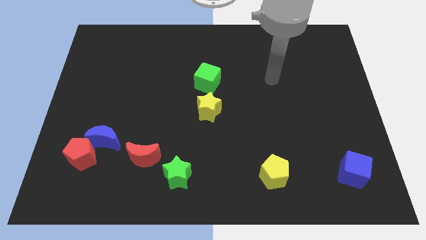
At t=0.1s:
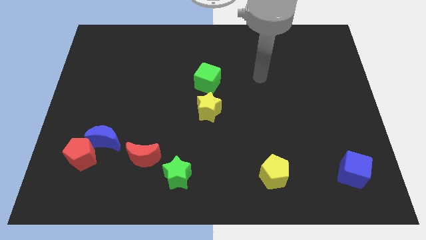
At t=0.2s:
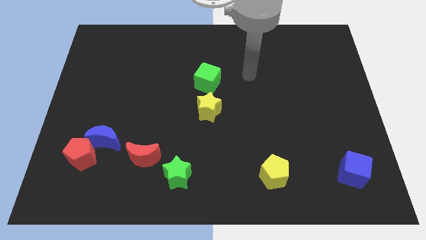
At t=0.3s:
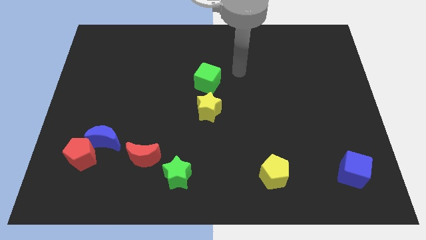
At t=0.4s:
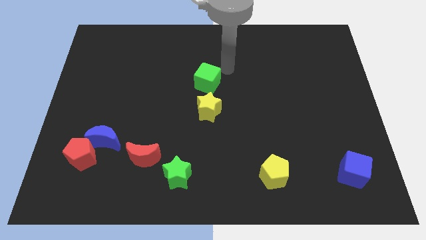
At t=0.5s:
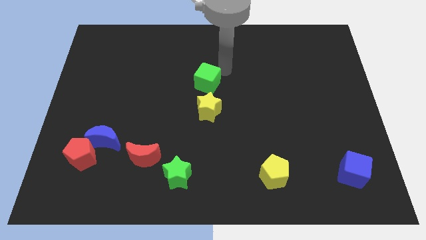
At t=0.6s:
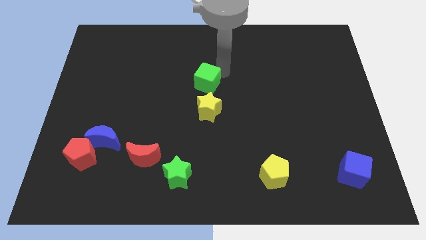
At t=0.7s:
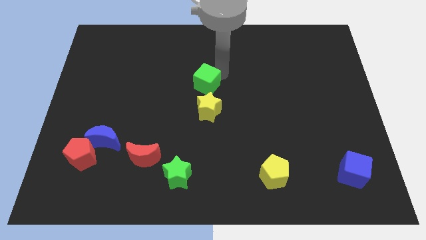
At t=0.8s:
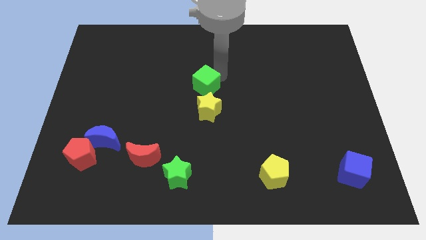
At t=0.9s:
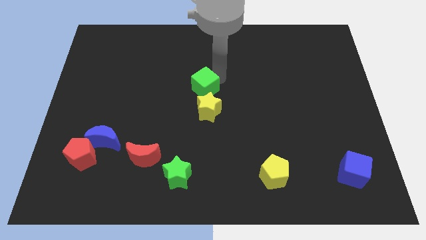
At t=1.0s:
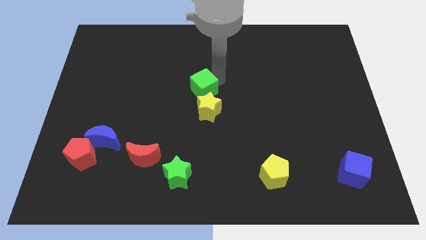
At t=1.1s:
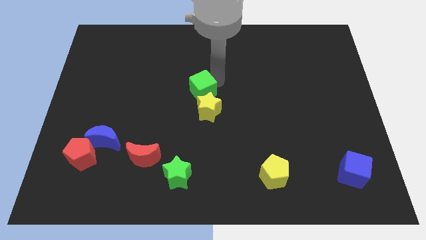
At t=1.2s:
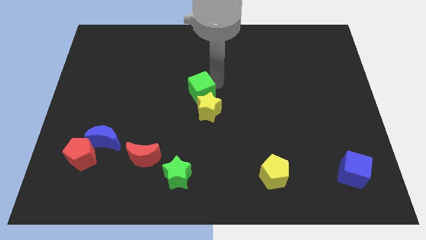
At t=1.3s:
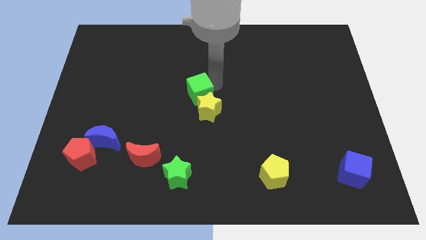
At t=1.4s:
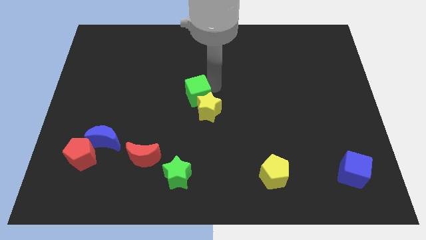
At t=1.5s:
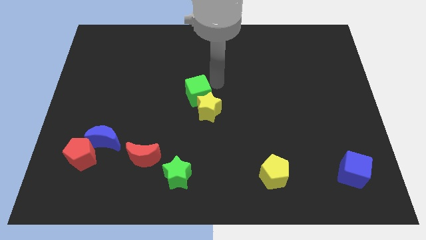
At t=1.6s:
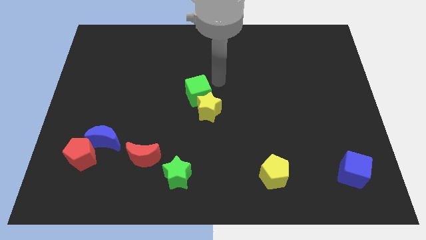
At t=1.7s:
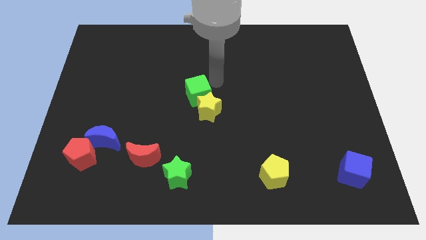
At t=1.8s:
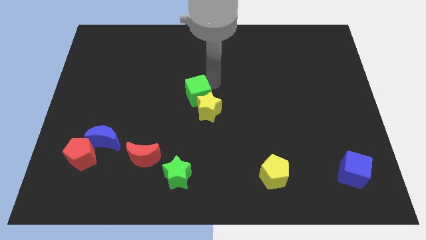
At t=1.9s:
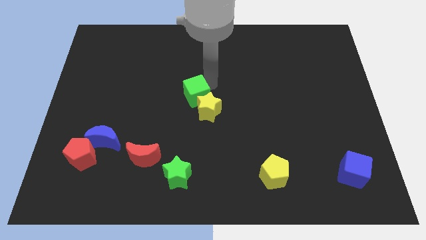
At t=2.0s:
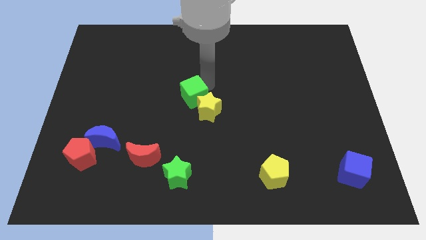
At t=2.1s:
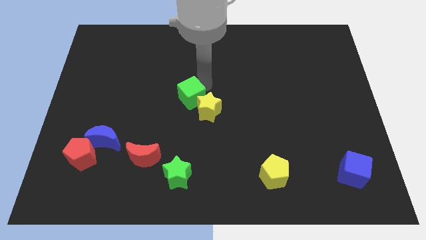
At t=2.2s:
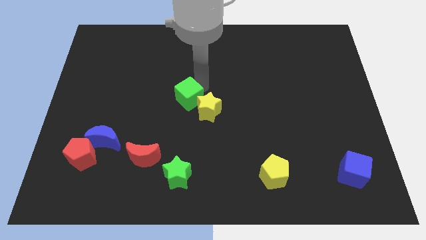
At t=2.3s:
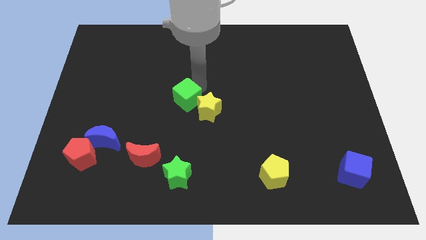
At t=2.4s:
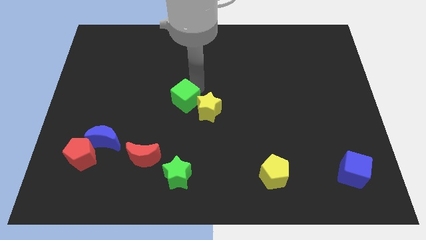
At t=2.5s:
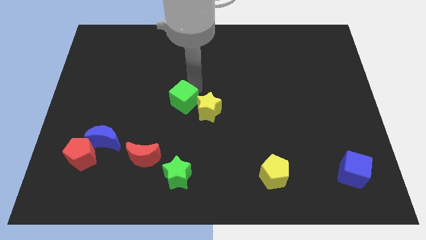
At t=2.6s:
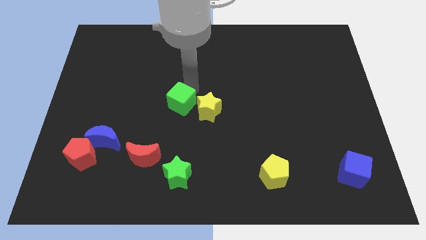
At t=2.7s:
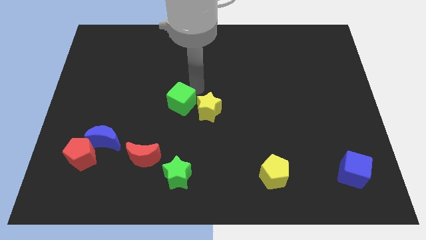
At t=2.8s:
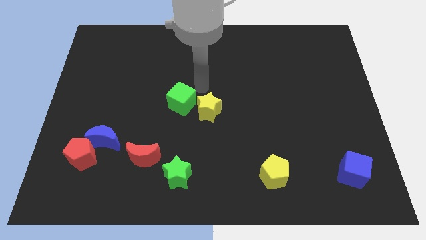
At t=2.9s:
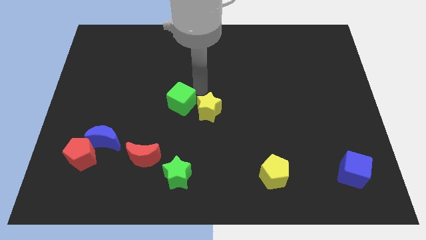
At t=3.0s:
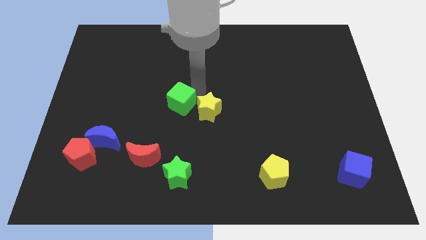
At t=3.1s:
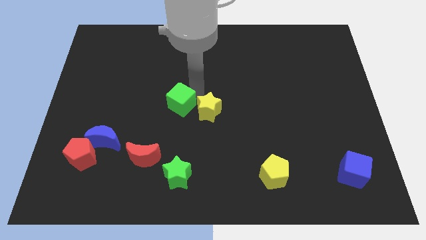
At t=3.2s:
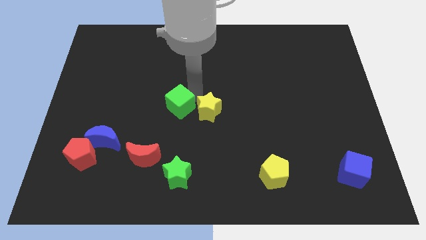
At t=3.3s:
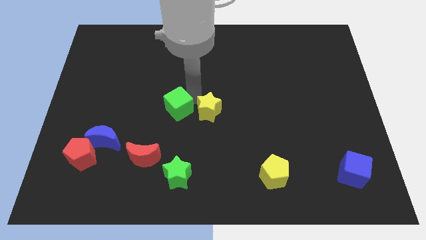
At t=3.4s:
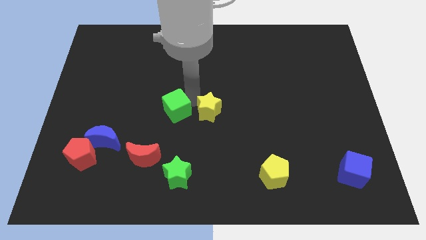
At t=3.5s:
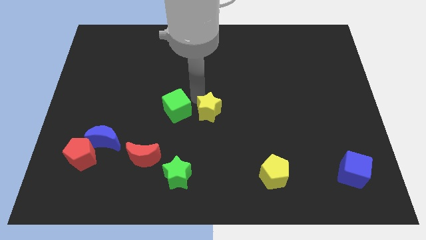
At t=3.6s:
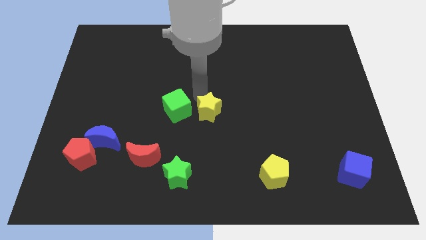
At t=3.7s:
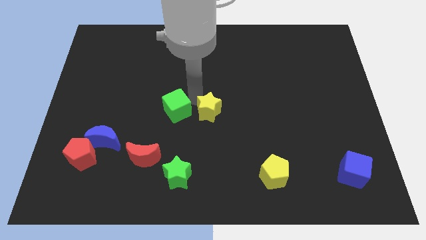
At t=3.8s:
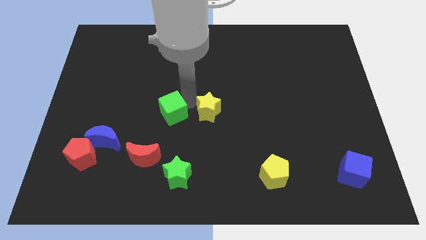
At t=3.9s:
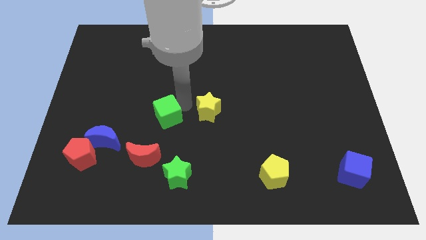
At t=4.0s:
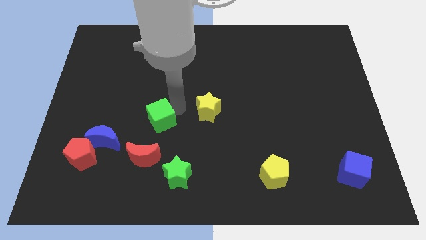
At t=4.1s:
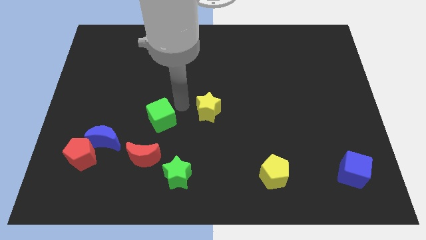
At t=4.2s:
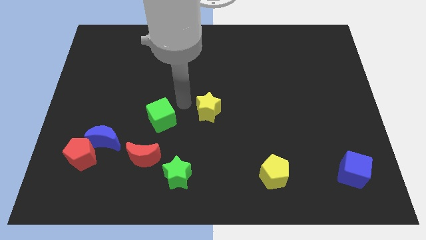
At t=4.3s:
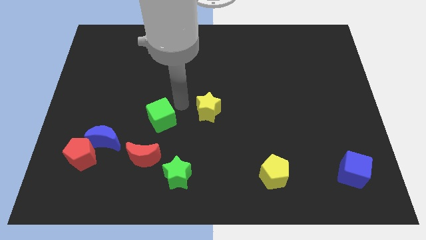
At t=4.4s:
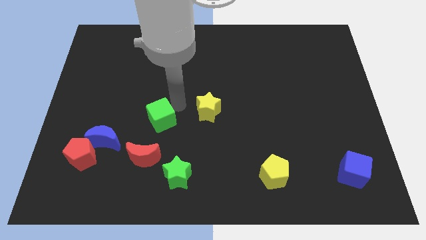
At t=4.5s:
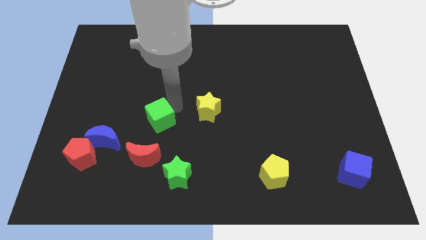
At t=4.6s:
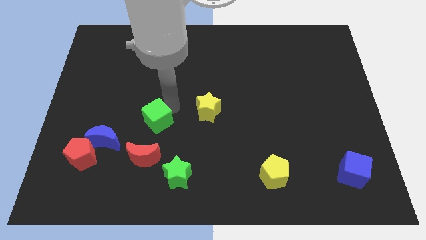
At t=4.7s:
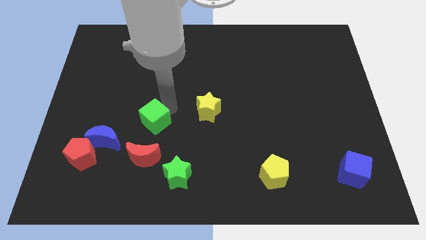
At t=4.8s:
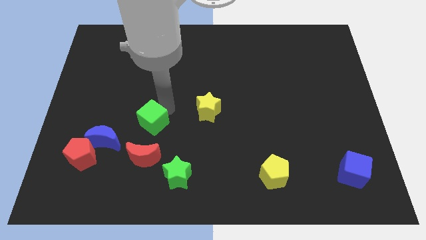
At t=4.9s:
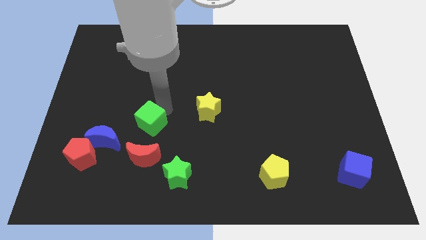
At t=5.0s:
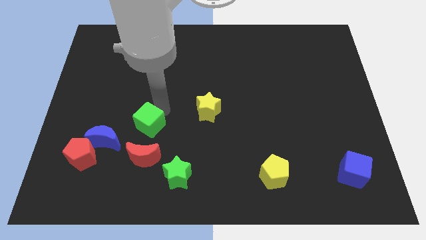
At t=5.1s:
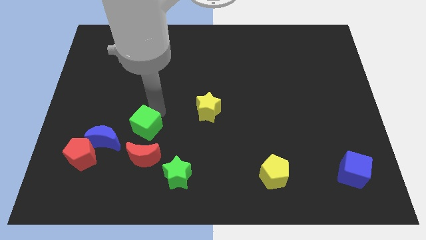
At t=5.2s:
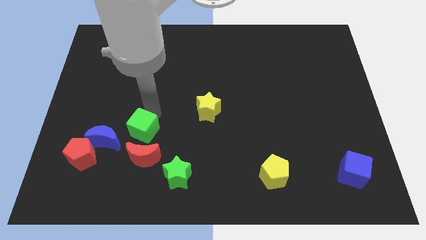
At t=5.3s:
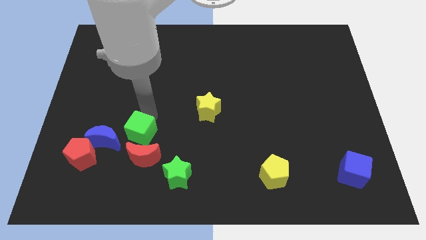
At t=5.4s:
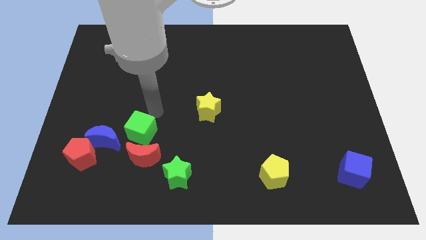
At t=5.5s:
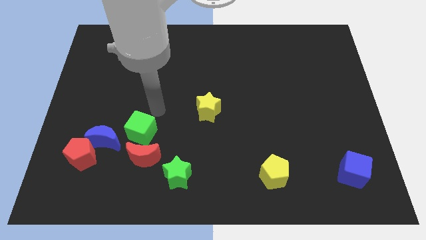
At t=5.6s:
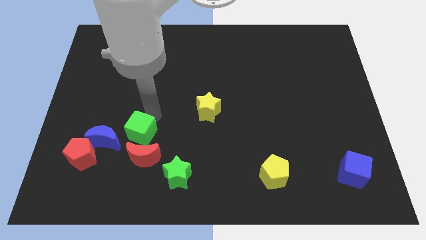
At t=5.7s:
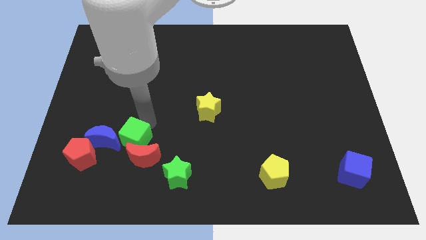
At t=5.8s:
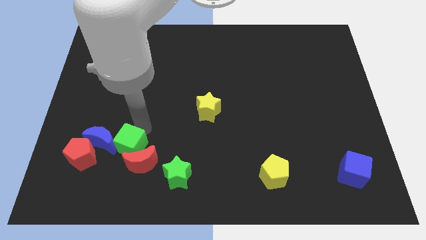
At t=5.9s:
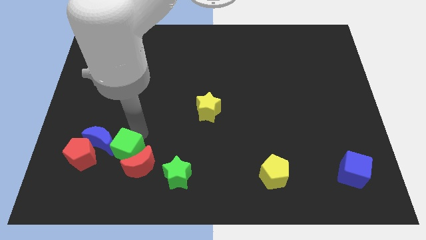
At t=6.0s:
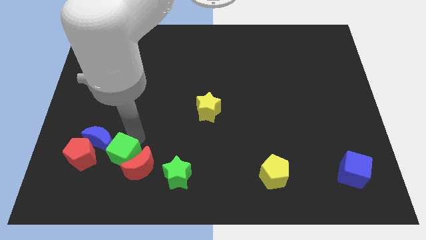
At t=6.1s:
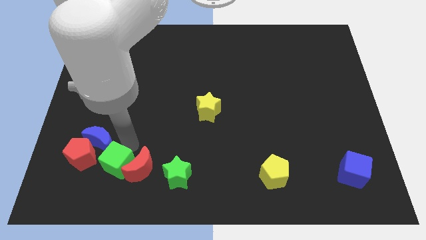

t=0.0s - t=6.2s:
slide the green cube to the bottom left side of the red moon

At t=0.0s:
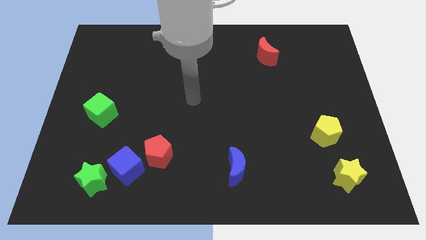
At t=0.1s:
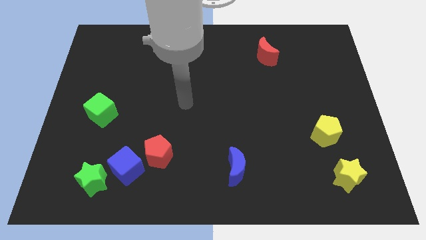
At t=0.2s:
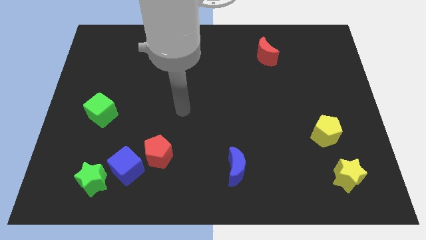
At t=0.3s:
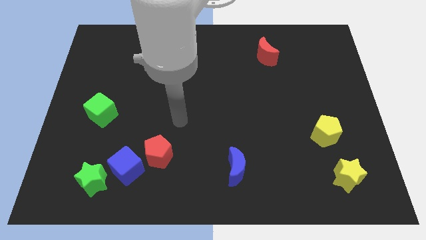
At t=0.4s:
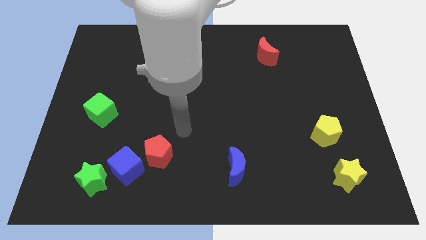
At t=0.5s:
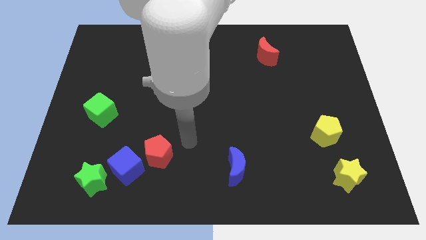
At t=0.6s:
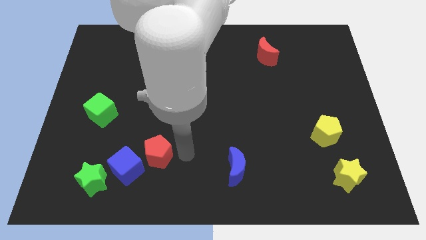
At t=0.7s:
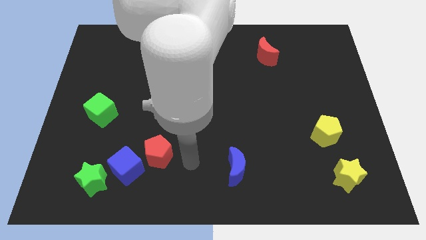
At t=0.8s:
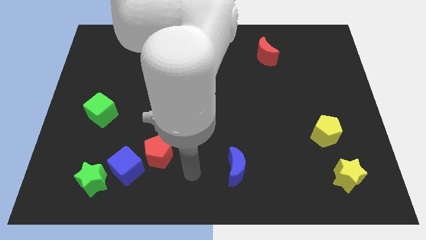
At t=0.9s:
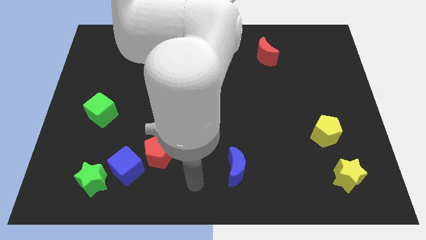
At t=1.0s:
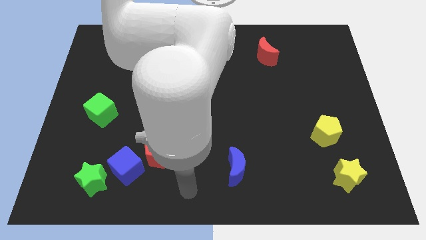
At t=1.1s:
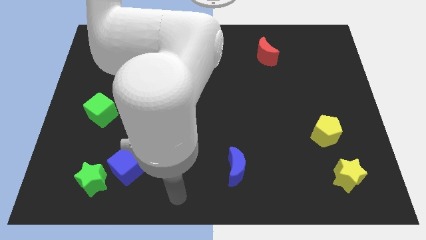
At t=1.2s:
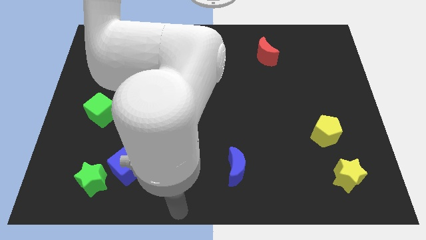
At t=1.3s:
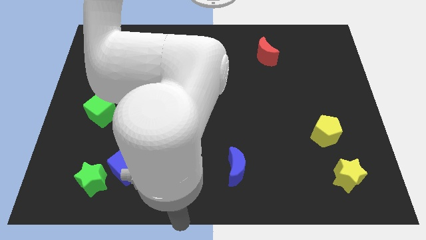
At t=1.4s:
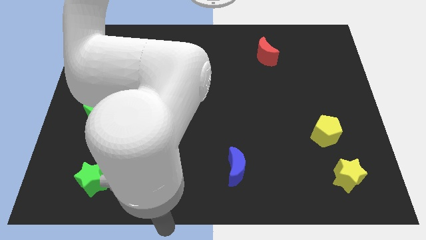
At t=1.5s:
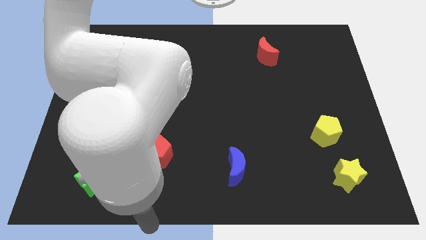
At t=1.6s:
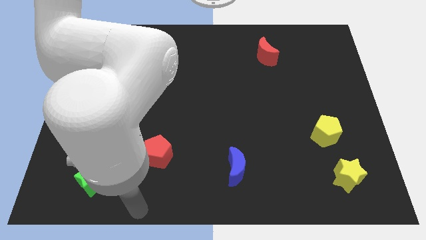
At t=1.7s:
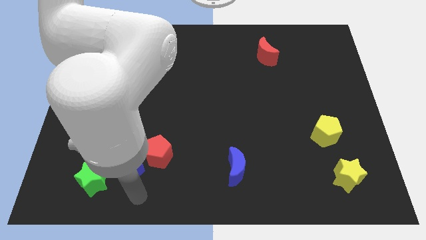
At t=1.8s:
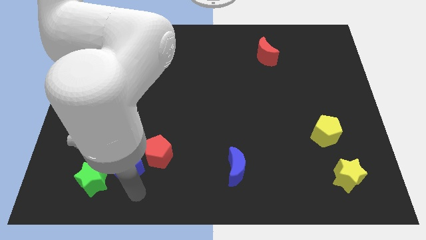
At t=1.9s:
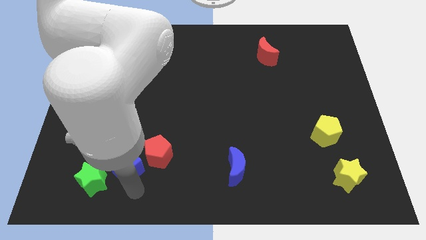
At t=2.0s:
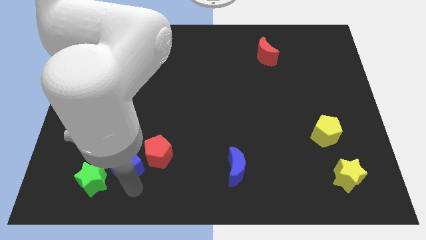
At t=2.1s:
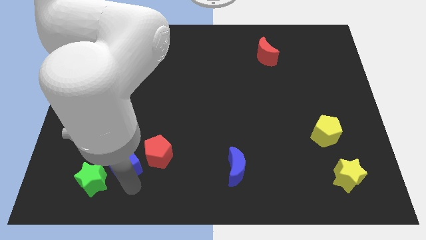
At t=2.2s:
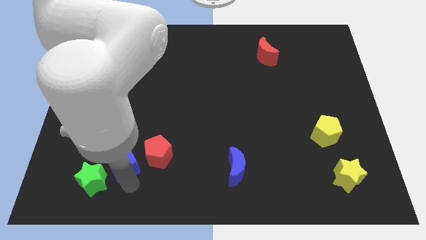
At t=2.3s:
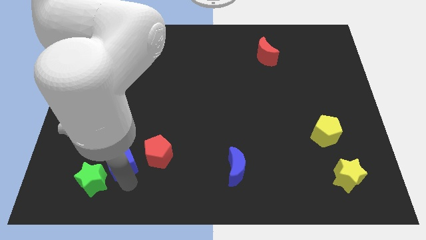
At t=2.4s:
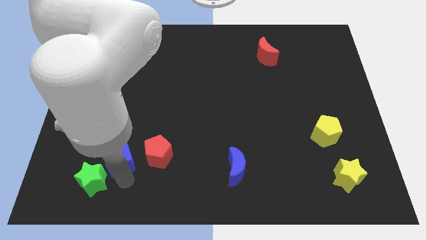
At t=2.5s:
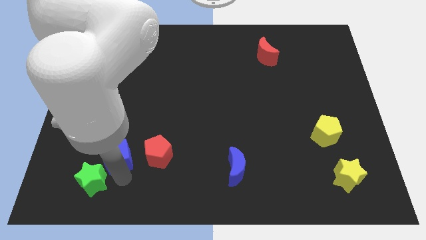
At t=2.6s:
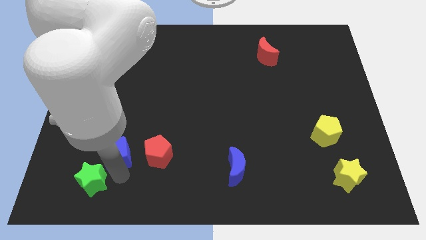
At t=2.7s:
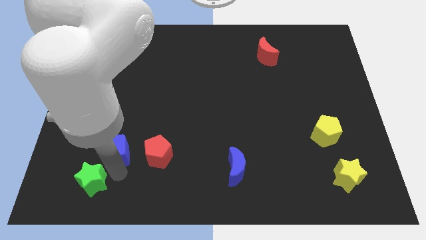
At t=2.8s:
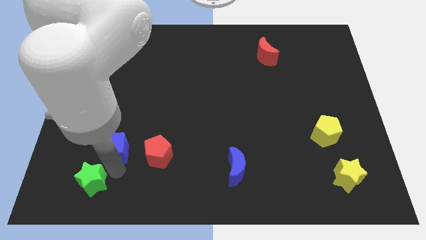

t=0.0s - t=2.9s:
slide the blue cube to the bottom right side of the green cube
